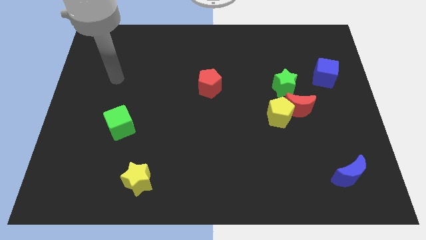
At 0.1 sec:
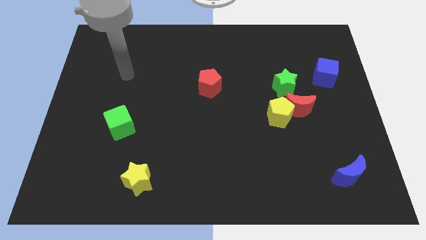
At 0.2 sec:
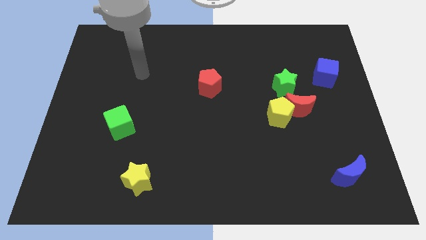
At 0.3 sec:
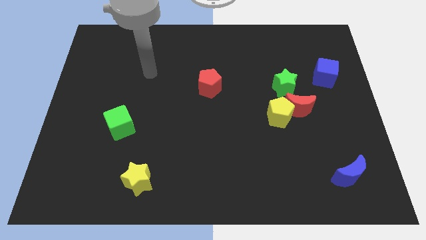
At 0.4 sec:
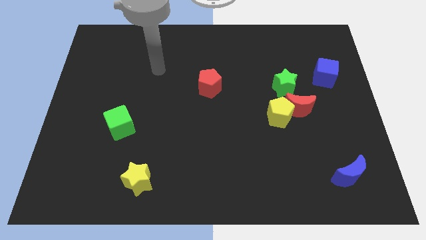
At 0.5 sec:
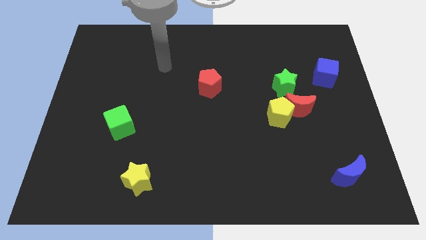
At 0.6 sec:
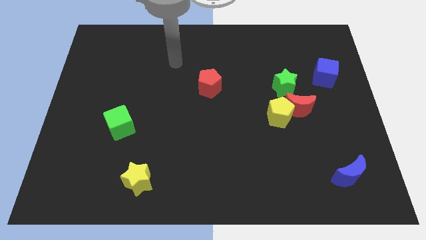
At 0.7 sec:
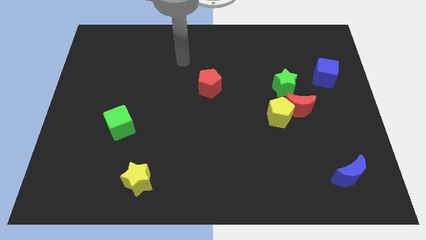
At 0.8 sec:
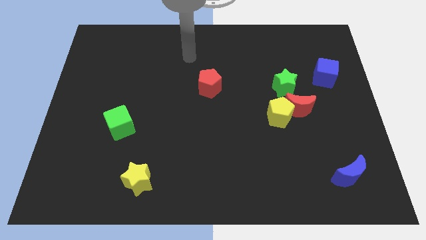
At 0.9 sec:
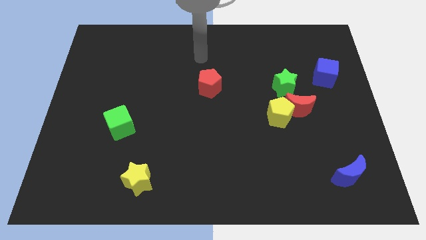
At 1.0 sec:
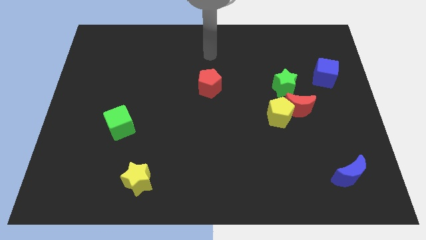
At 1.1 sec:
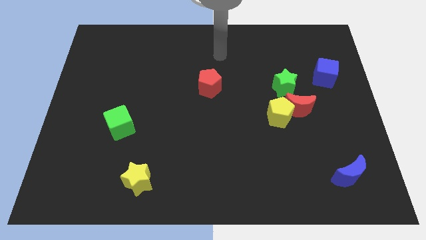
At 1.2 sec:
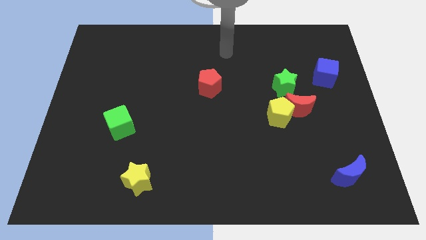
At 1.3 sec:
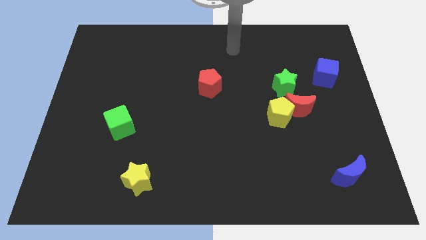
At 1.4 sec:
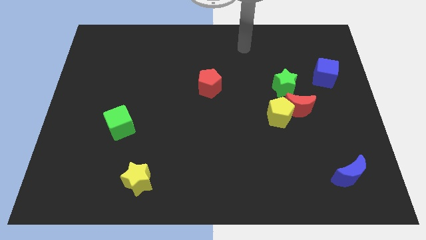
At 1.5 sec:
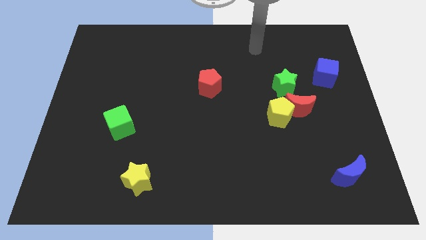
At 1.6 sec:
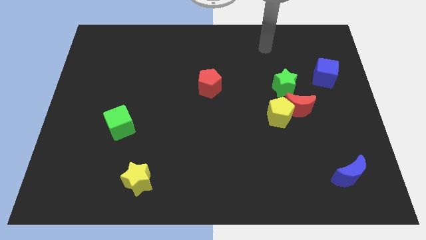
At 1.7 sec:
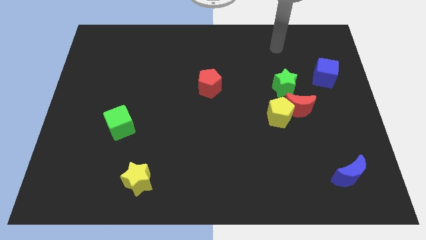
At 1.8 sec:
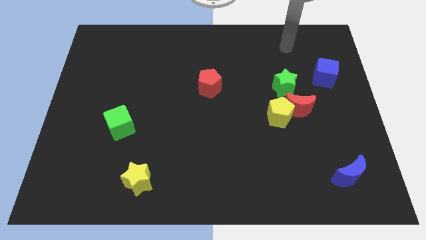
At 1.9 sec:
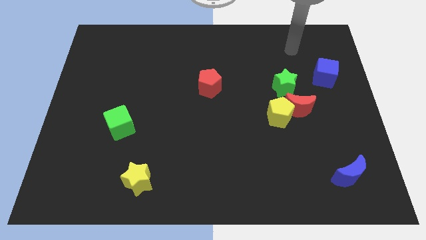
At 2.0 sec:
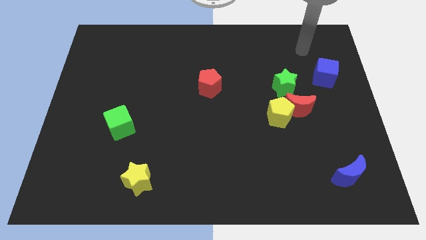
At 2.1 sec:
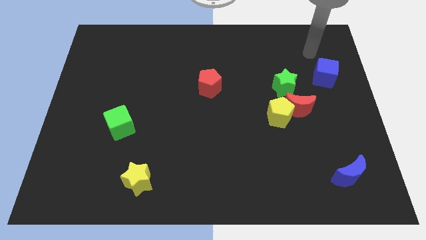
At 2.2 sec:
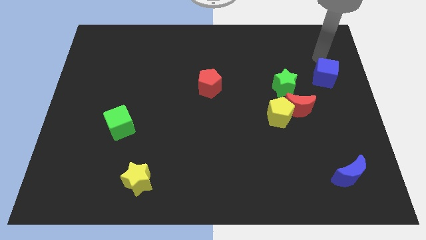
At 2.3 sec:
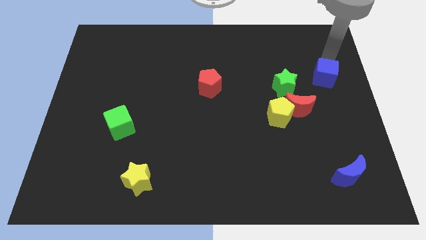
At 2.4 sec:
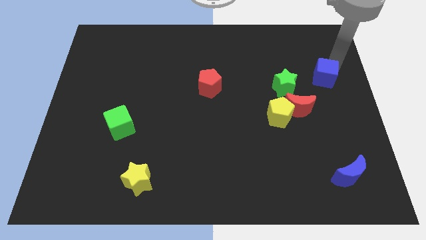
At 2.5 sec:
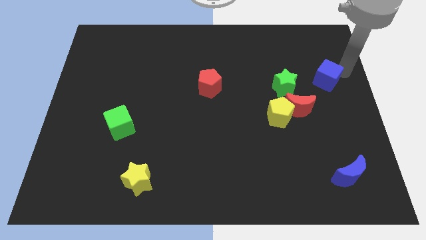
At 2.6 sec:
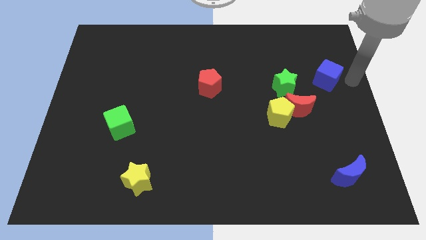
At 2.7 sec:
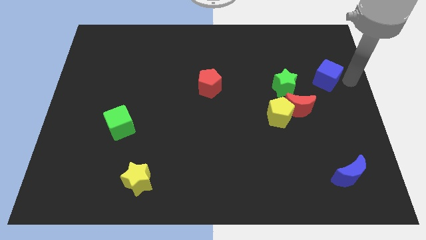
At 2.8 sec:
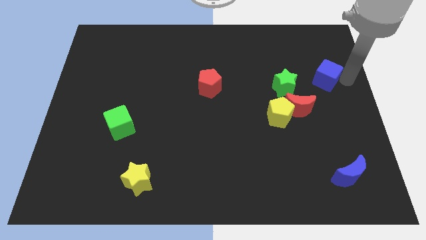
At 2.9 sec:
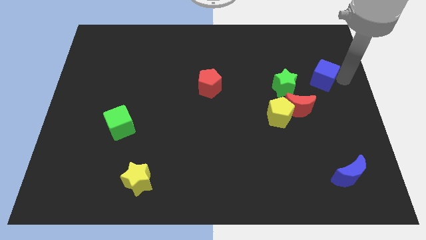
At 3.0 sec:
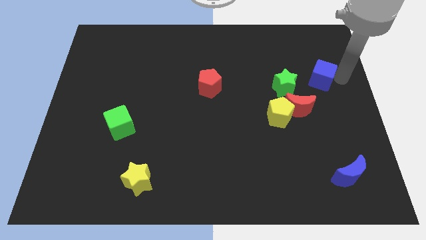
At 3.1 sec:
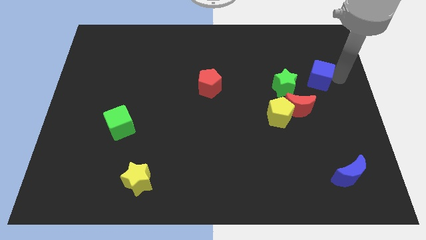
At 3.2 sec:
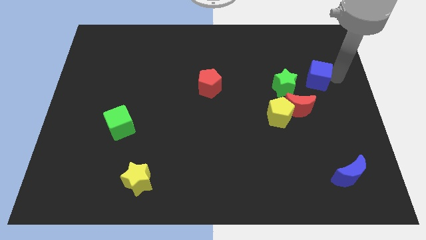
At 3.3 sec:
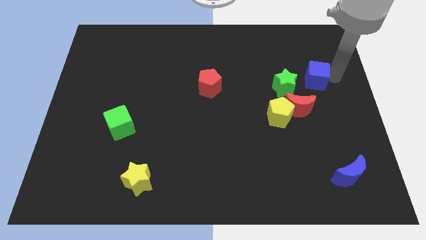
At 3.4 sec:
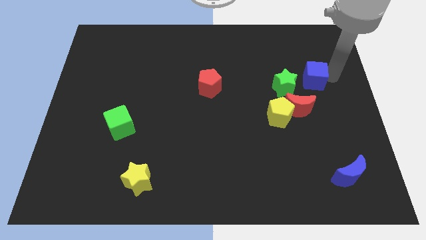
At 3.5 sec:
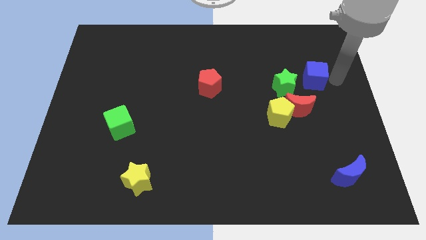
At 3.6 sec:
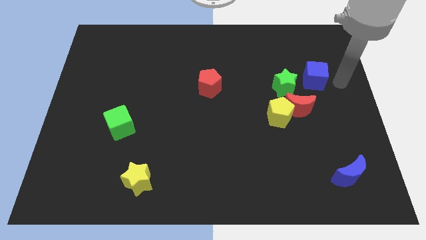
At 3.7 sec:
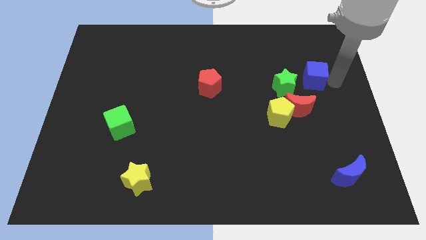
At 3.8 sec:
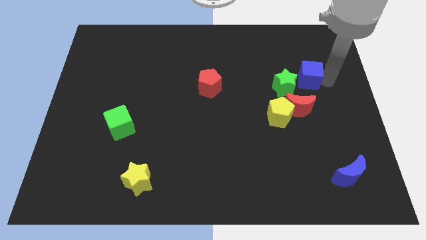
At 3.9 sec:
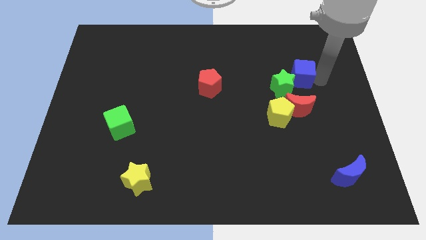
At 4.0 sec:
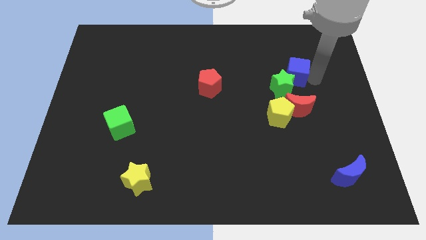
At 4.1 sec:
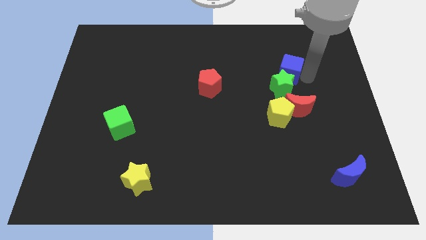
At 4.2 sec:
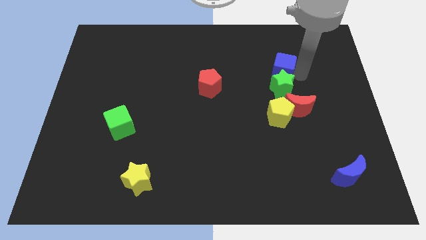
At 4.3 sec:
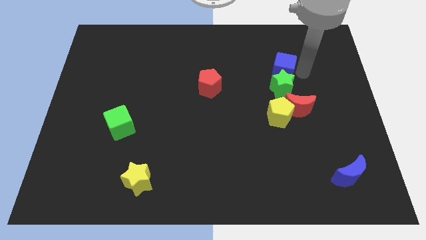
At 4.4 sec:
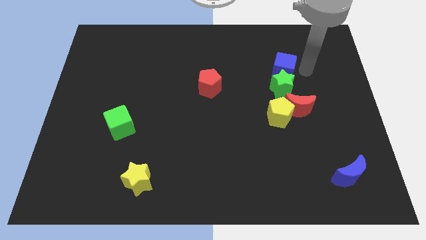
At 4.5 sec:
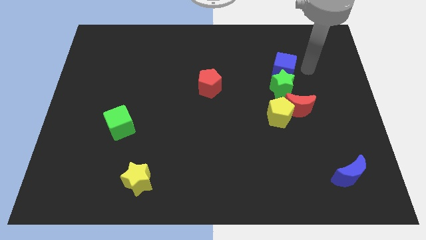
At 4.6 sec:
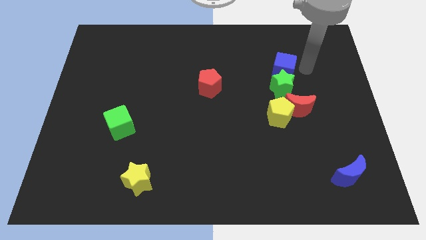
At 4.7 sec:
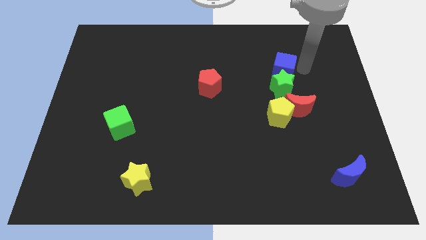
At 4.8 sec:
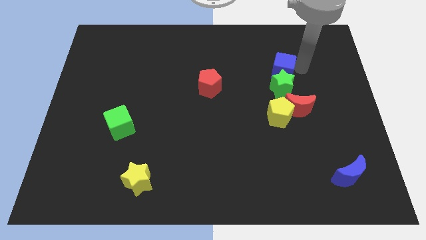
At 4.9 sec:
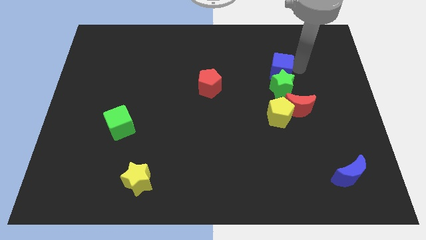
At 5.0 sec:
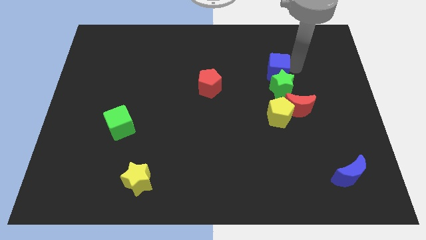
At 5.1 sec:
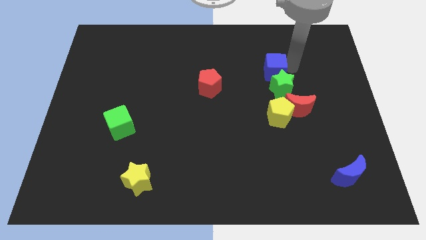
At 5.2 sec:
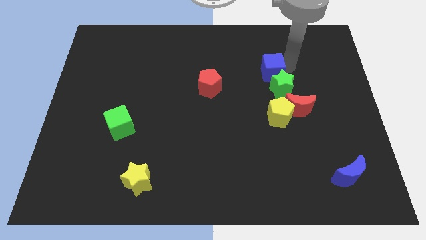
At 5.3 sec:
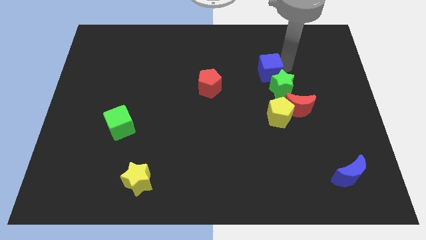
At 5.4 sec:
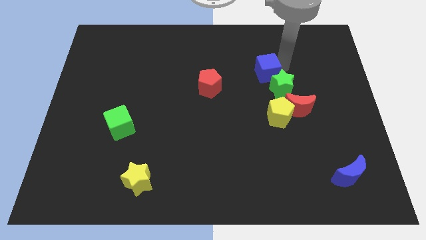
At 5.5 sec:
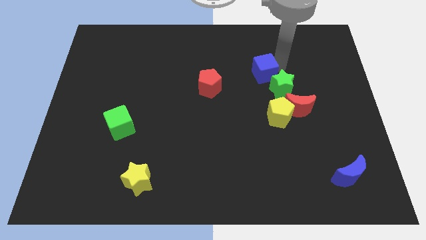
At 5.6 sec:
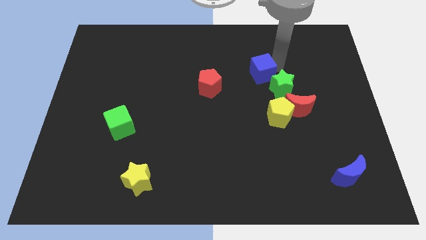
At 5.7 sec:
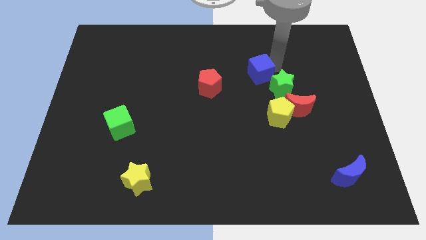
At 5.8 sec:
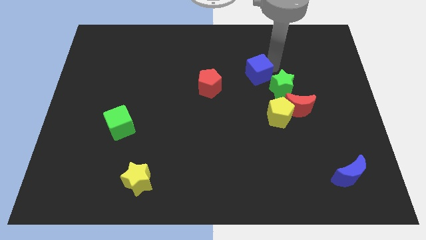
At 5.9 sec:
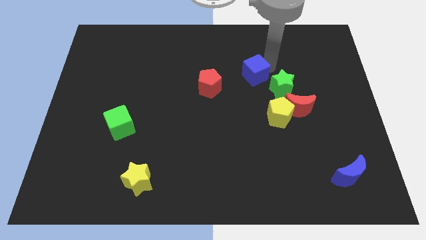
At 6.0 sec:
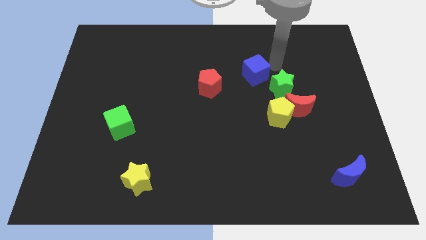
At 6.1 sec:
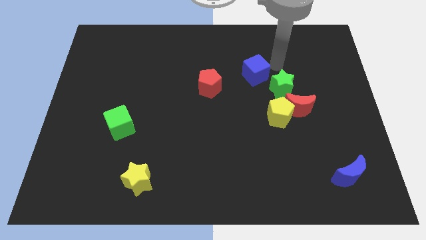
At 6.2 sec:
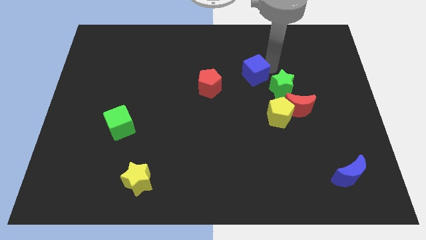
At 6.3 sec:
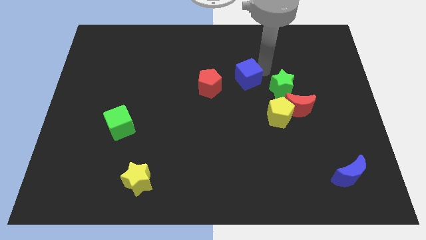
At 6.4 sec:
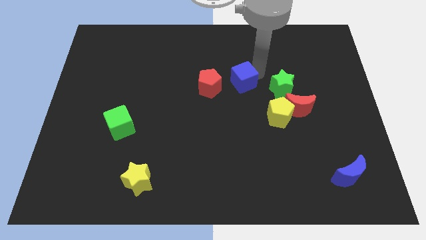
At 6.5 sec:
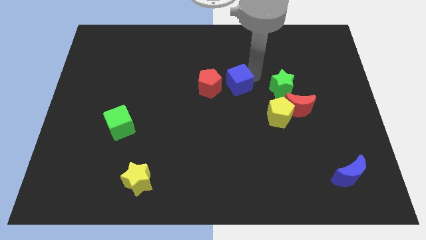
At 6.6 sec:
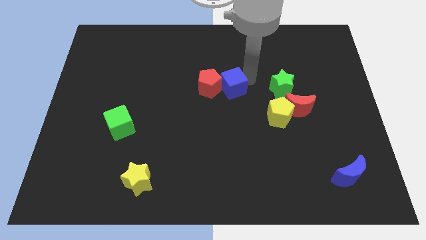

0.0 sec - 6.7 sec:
move the blue cube next to the red pentagon
